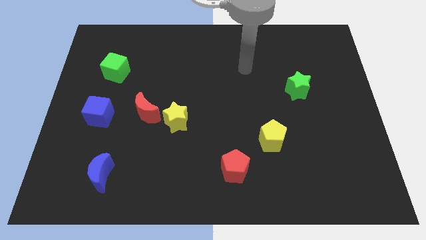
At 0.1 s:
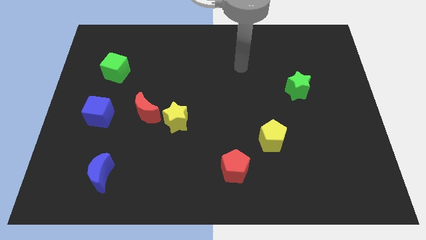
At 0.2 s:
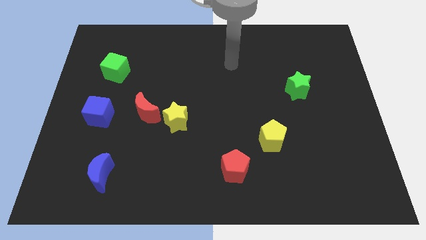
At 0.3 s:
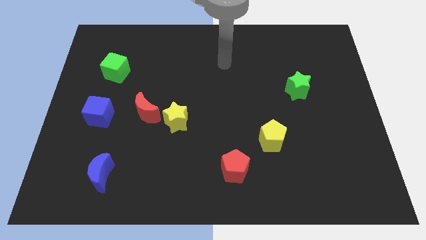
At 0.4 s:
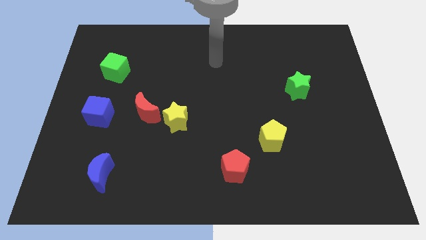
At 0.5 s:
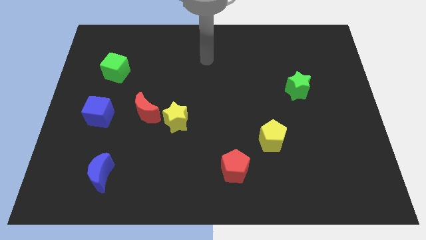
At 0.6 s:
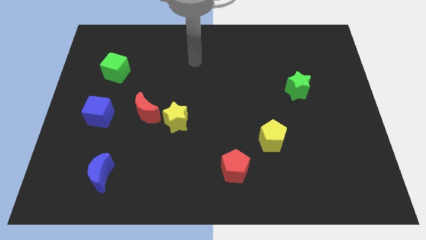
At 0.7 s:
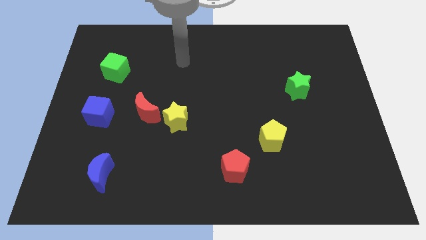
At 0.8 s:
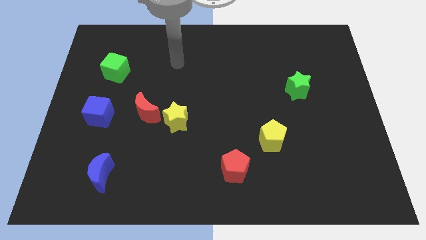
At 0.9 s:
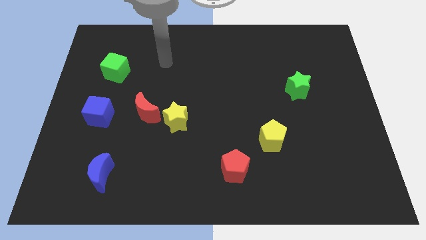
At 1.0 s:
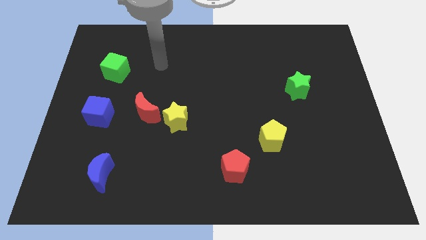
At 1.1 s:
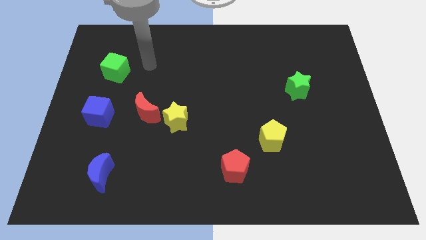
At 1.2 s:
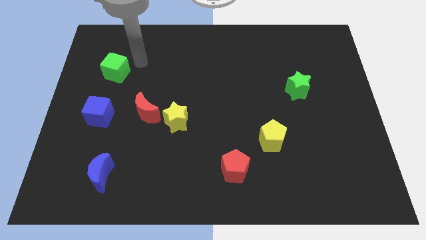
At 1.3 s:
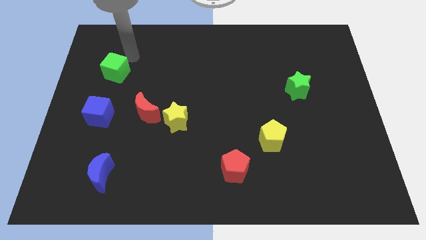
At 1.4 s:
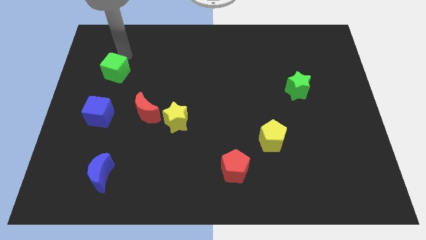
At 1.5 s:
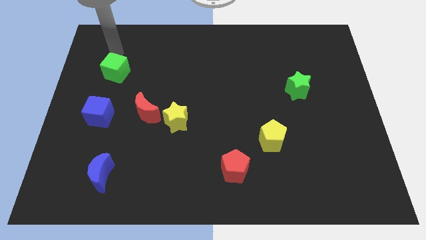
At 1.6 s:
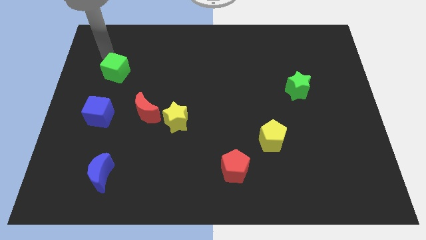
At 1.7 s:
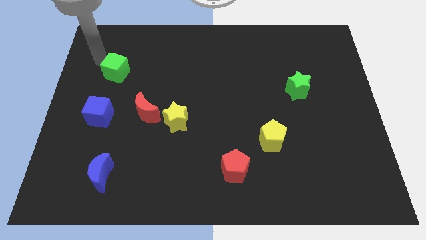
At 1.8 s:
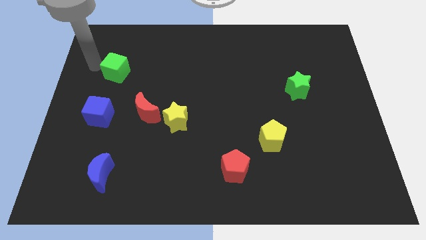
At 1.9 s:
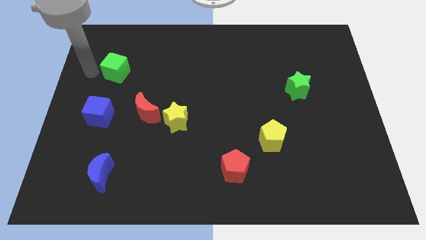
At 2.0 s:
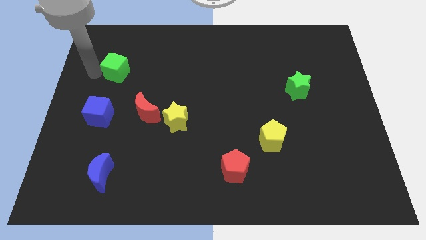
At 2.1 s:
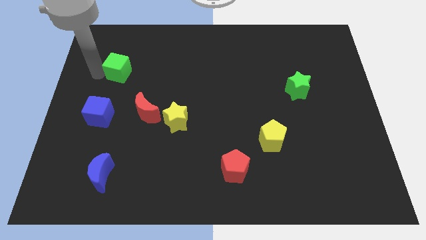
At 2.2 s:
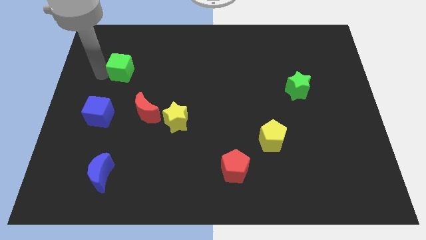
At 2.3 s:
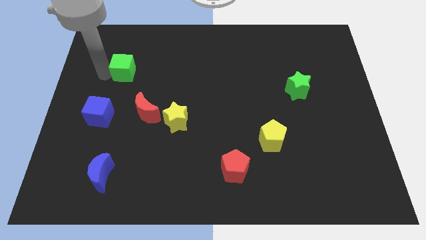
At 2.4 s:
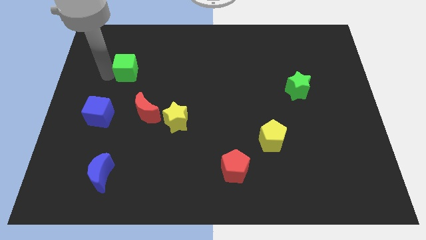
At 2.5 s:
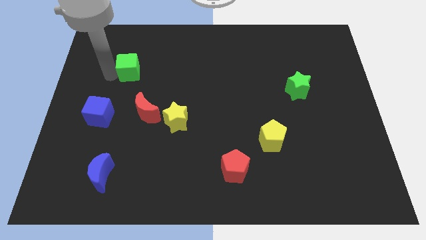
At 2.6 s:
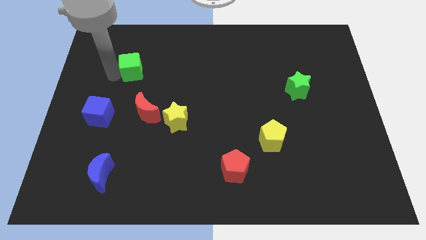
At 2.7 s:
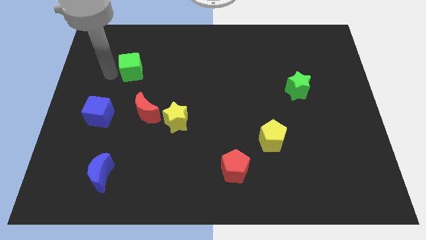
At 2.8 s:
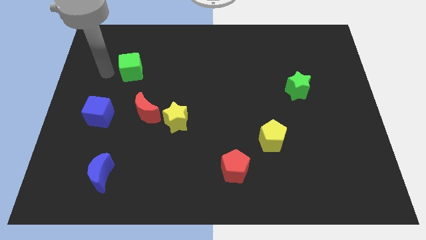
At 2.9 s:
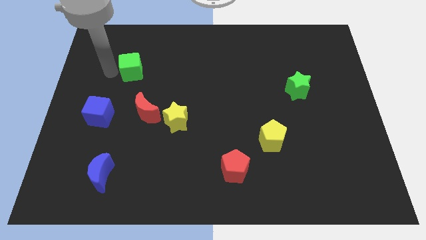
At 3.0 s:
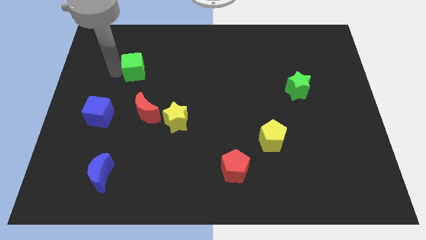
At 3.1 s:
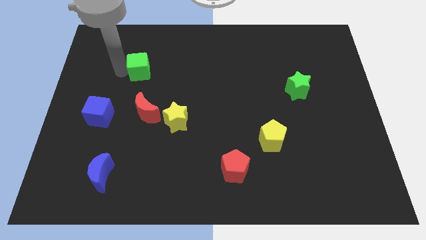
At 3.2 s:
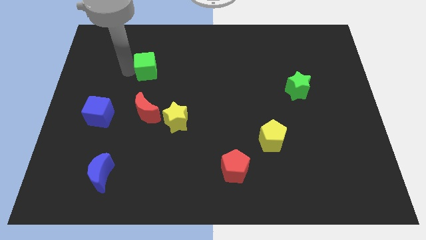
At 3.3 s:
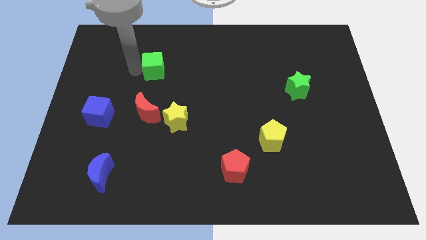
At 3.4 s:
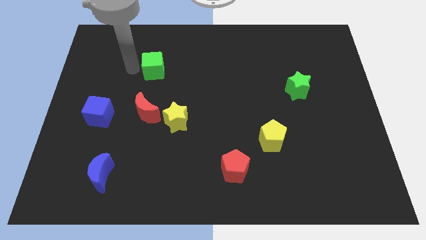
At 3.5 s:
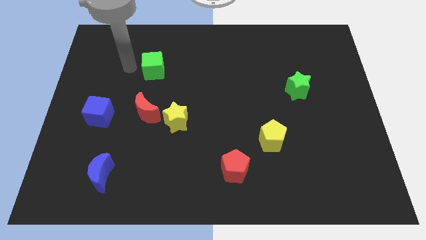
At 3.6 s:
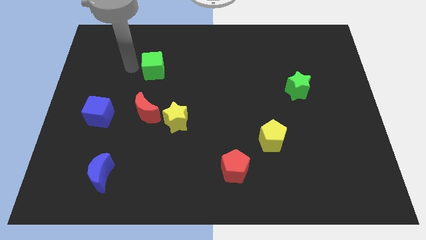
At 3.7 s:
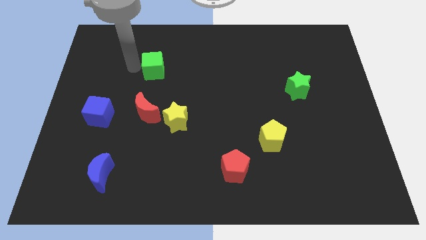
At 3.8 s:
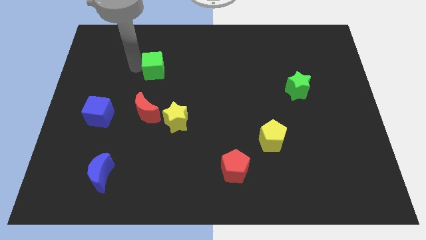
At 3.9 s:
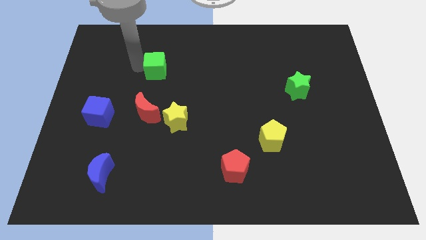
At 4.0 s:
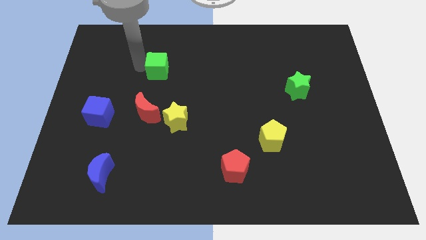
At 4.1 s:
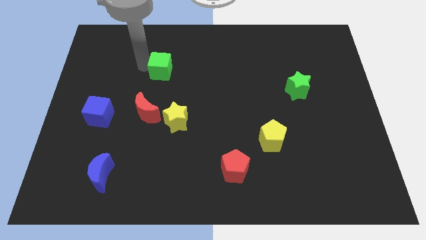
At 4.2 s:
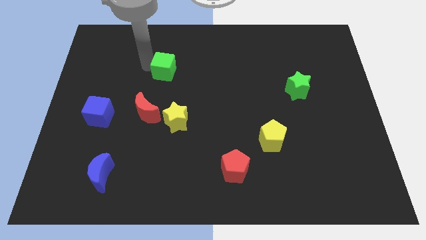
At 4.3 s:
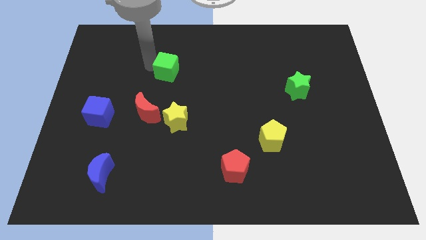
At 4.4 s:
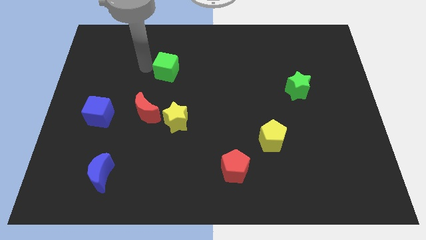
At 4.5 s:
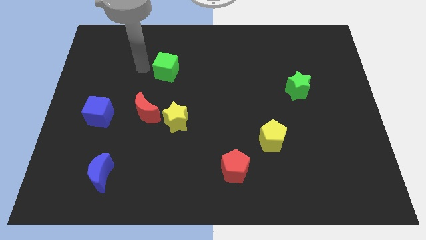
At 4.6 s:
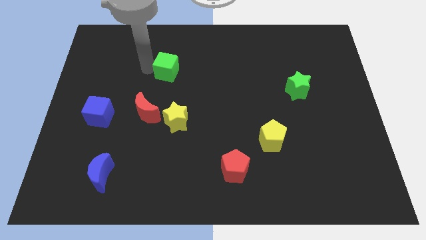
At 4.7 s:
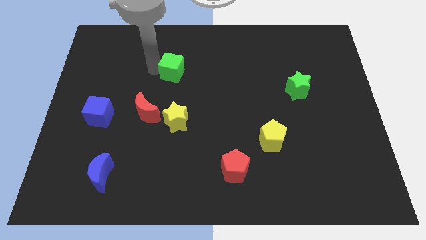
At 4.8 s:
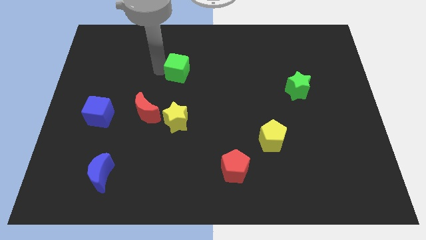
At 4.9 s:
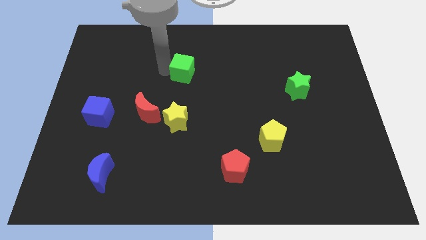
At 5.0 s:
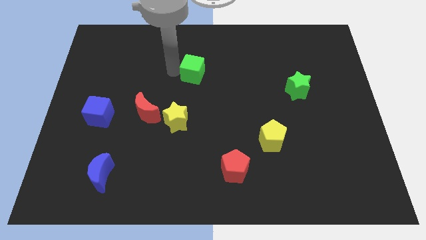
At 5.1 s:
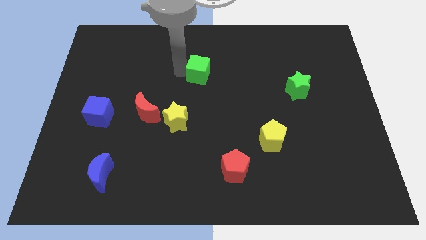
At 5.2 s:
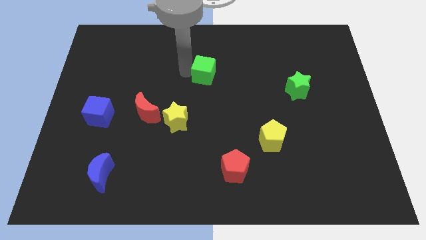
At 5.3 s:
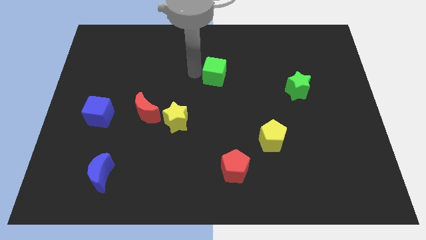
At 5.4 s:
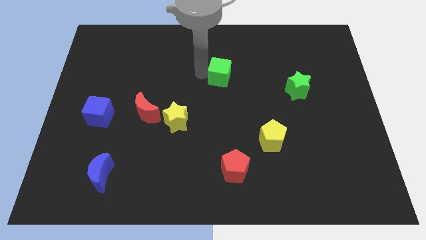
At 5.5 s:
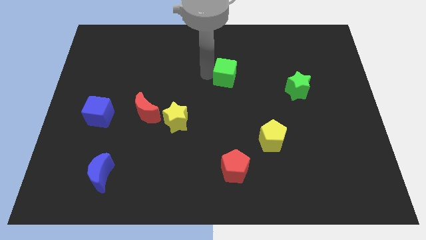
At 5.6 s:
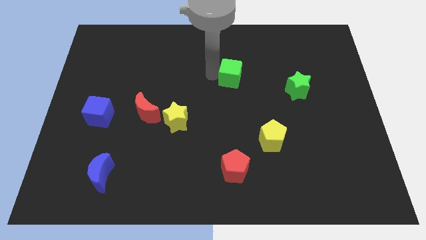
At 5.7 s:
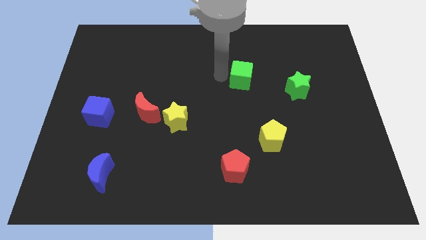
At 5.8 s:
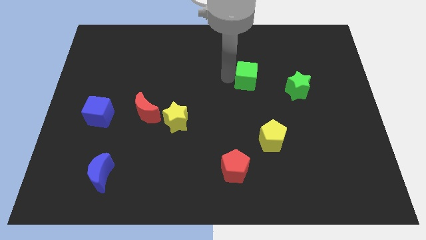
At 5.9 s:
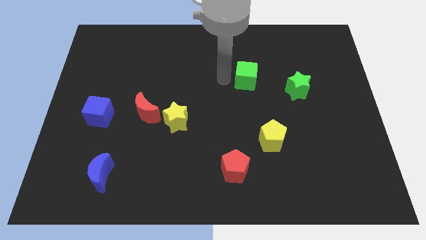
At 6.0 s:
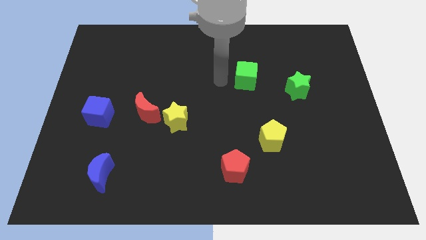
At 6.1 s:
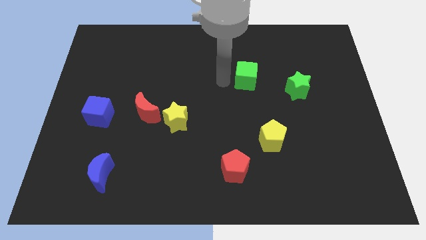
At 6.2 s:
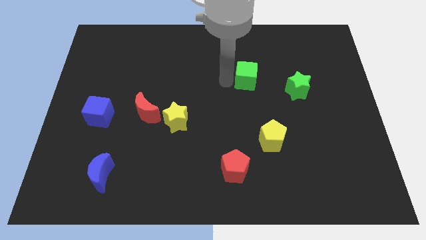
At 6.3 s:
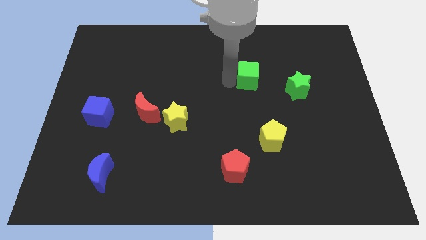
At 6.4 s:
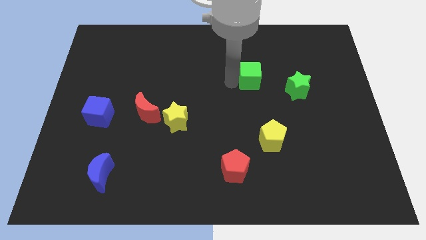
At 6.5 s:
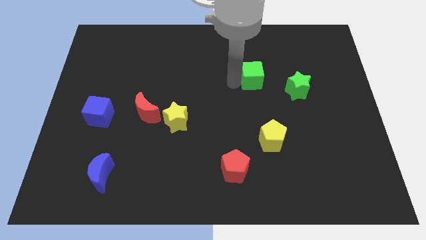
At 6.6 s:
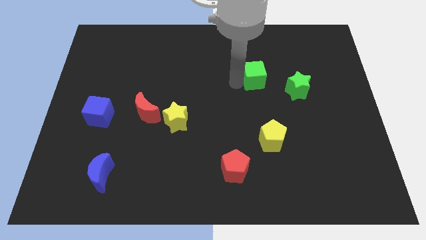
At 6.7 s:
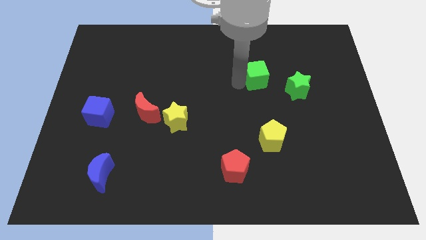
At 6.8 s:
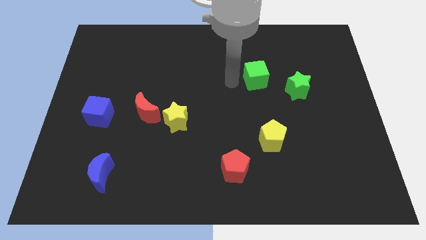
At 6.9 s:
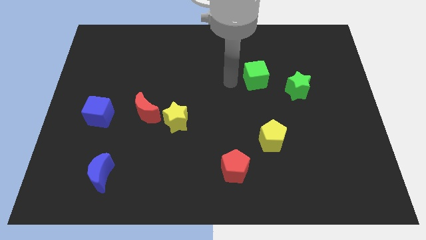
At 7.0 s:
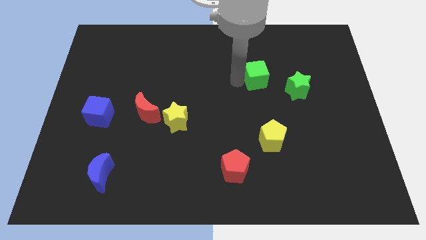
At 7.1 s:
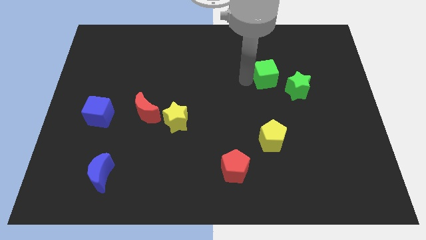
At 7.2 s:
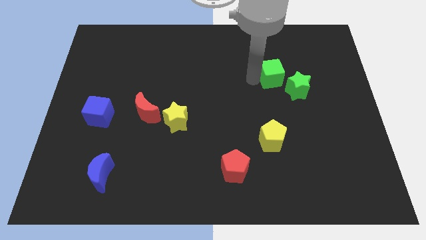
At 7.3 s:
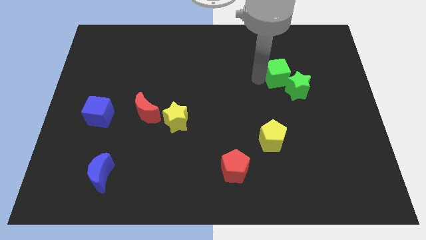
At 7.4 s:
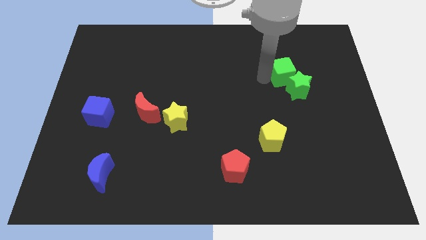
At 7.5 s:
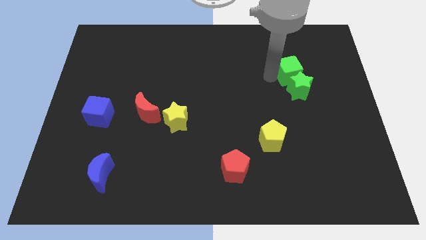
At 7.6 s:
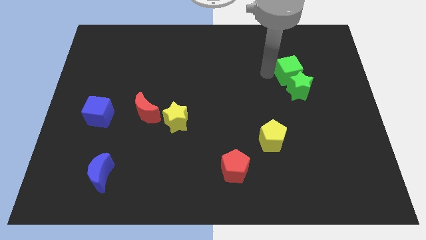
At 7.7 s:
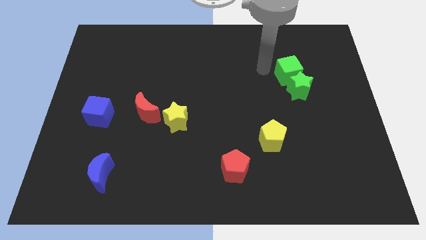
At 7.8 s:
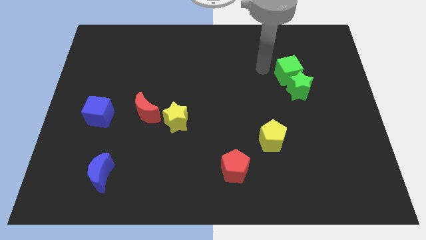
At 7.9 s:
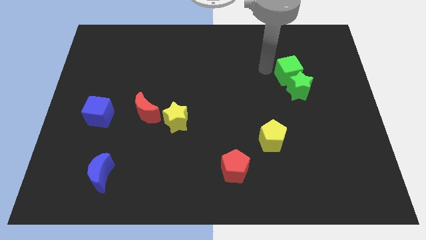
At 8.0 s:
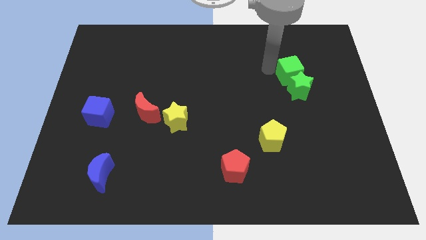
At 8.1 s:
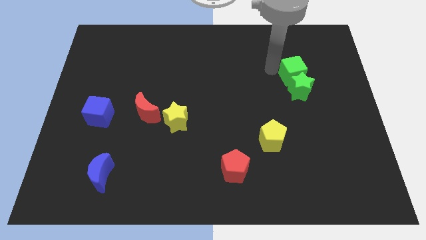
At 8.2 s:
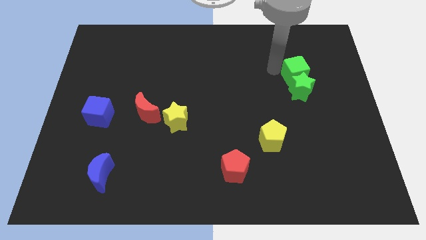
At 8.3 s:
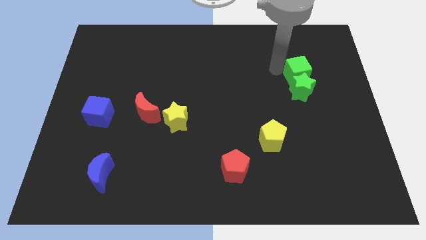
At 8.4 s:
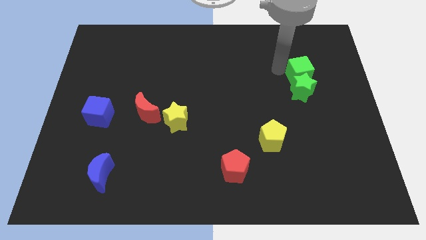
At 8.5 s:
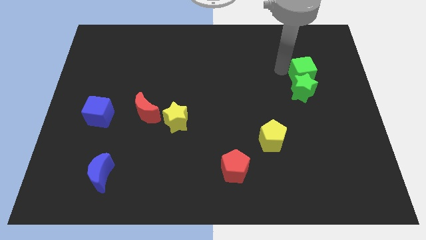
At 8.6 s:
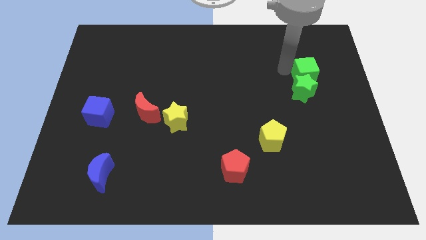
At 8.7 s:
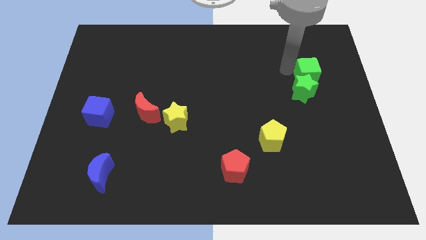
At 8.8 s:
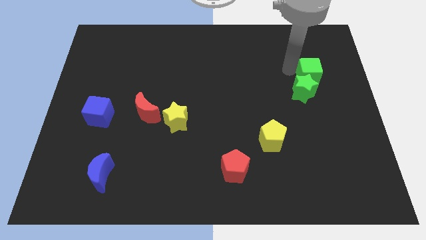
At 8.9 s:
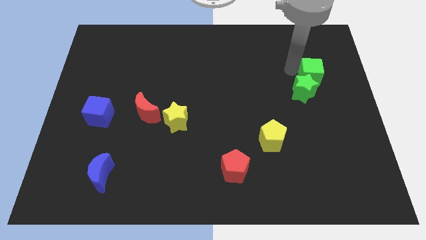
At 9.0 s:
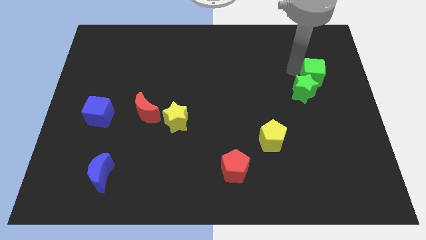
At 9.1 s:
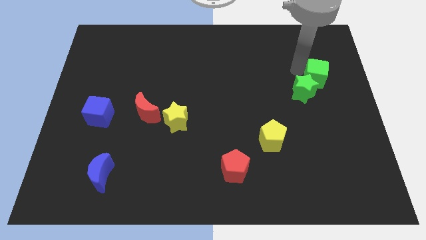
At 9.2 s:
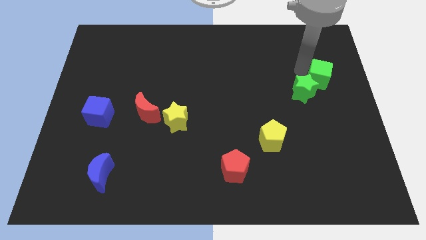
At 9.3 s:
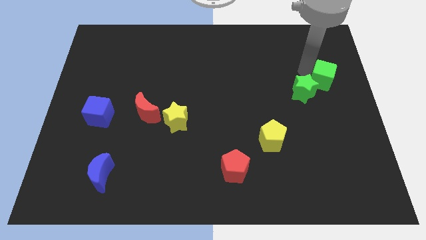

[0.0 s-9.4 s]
put the green cube to the right side
